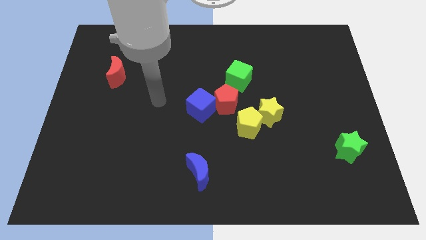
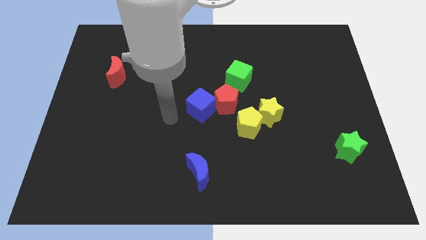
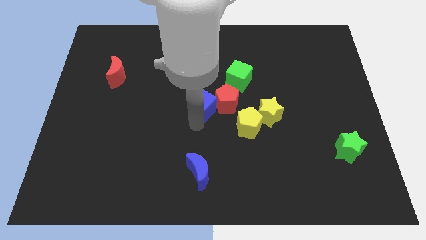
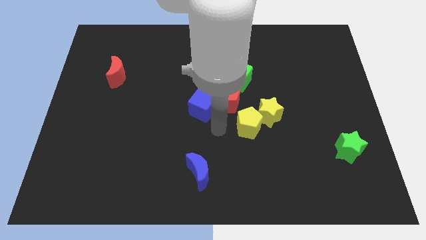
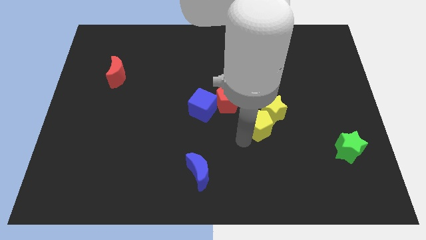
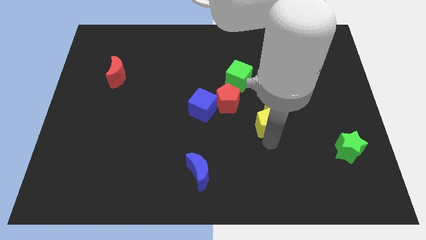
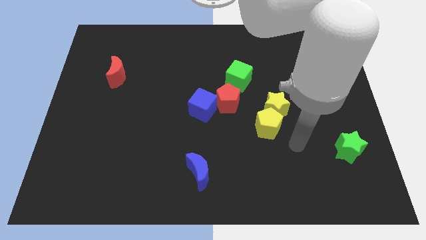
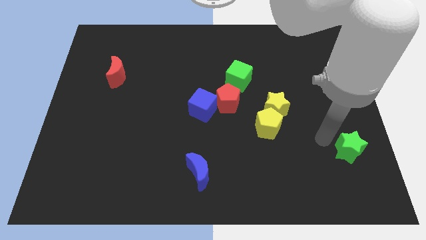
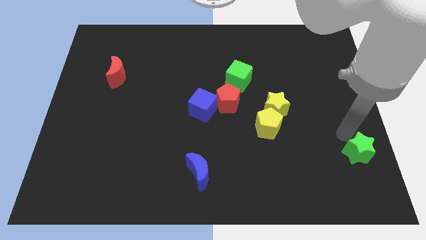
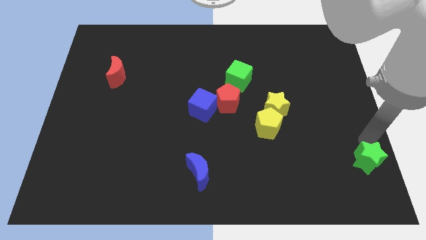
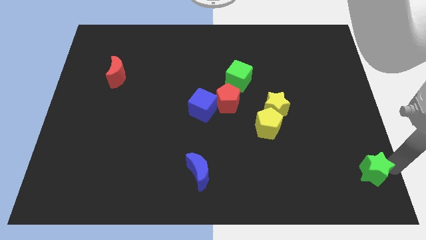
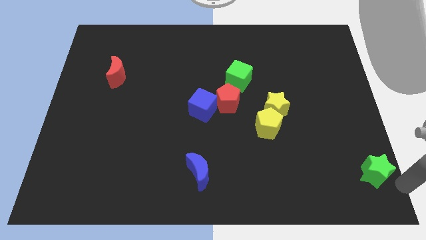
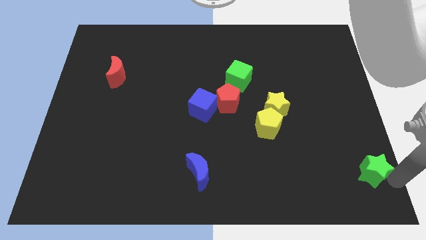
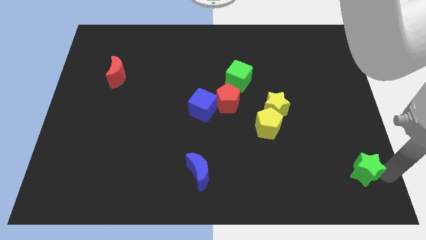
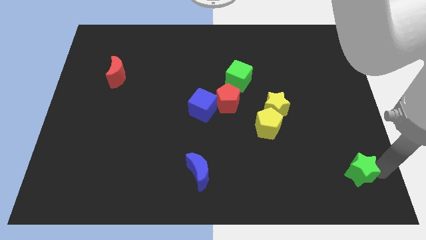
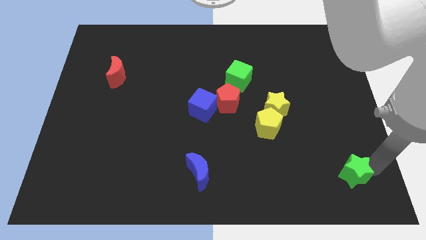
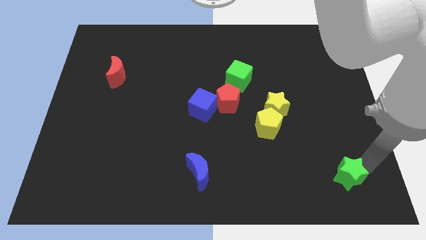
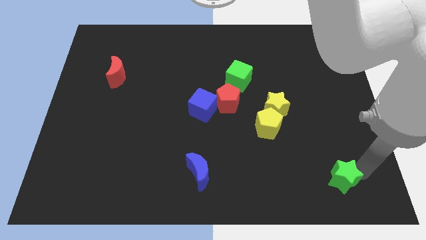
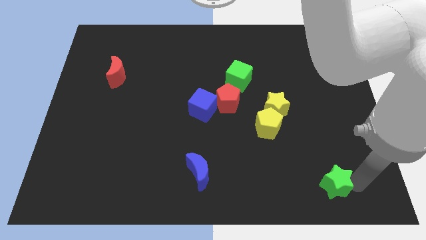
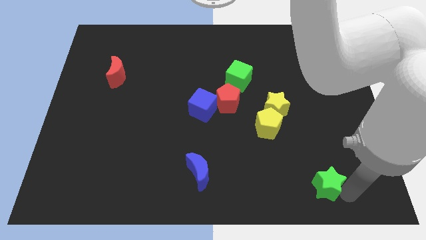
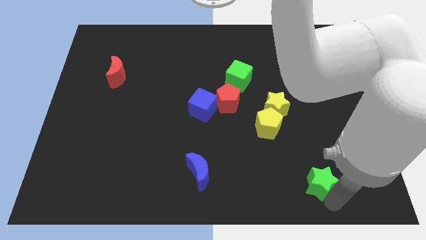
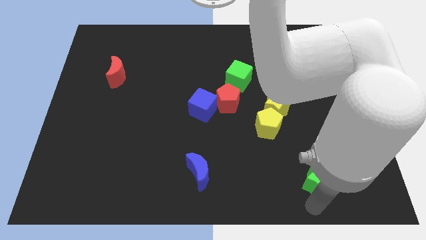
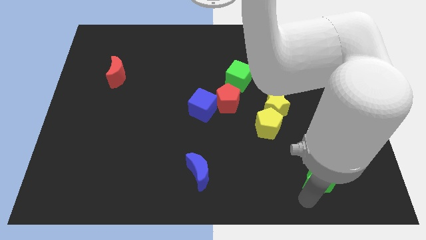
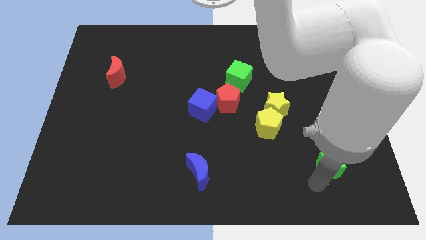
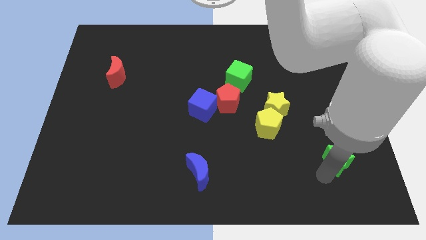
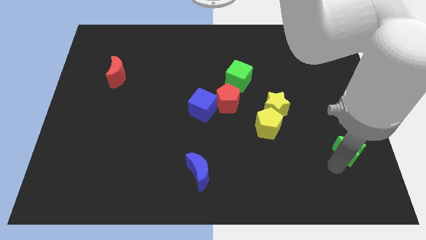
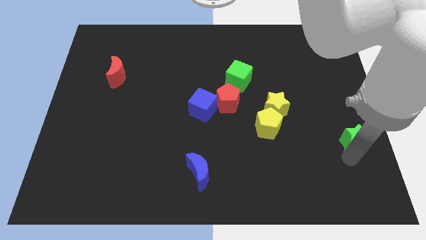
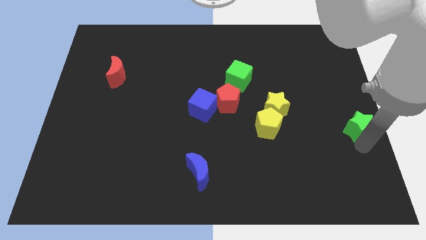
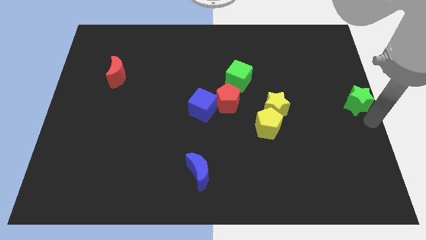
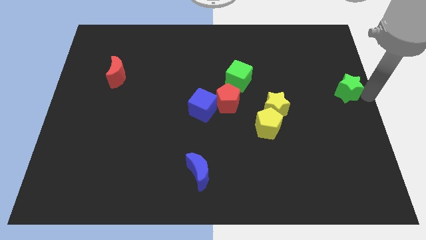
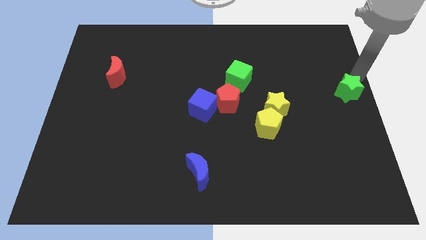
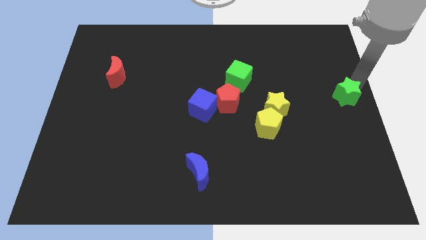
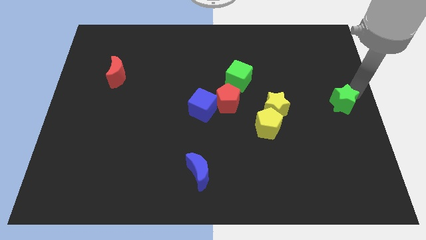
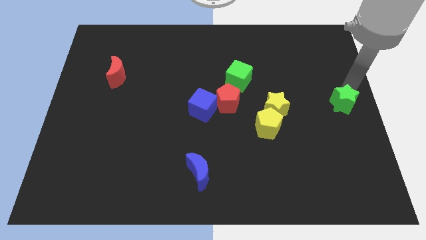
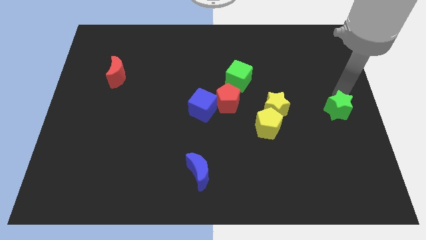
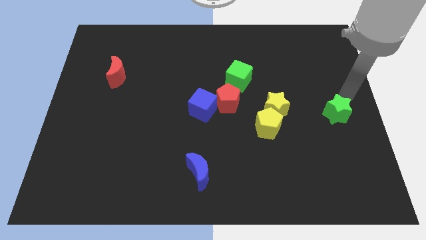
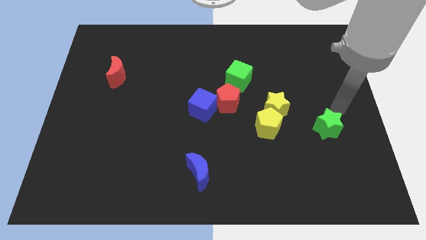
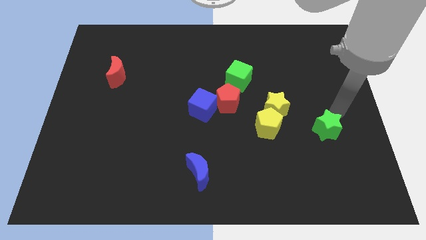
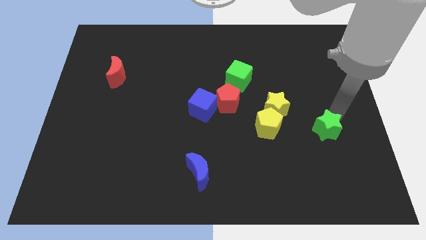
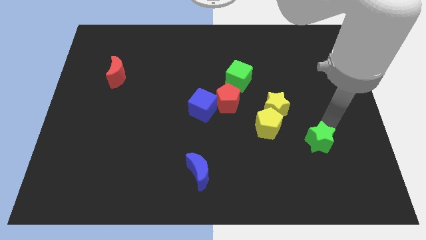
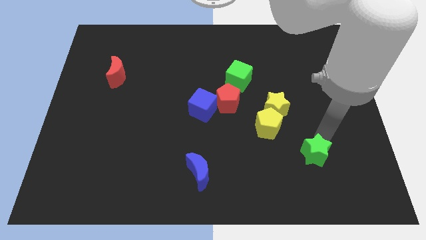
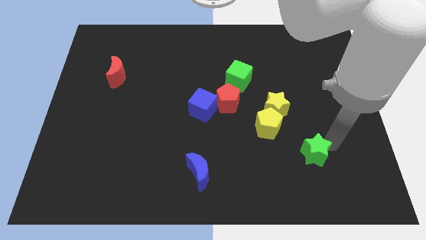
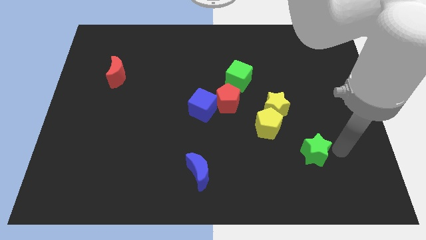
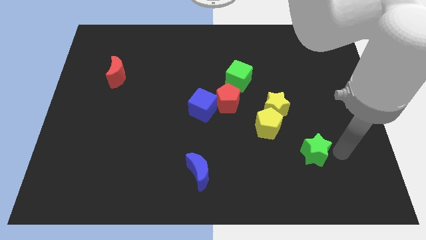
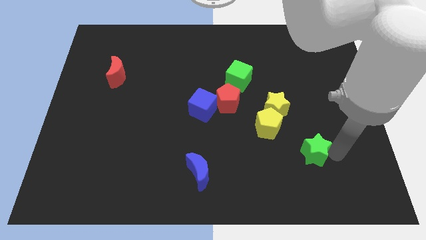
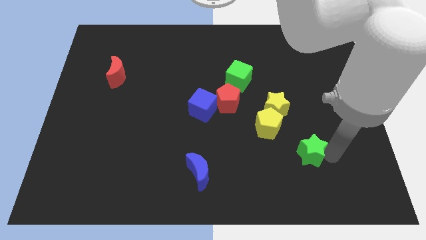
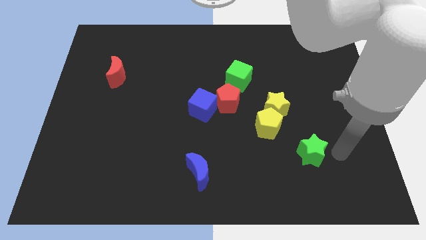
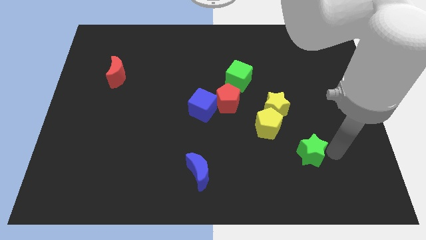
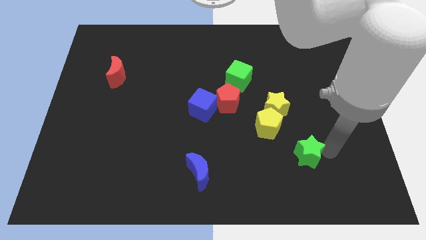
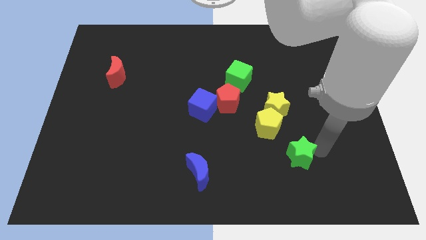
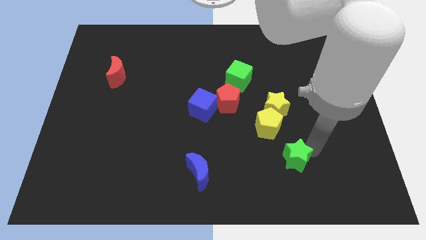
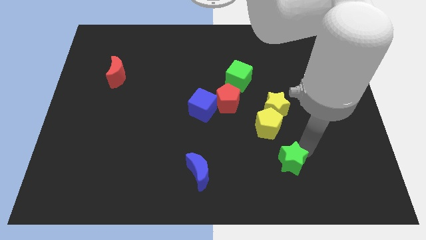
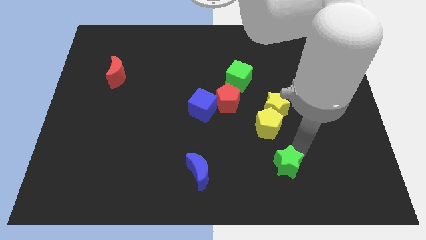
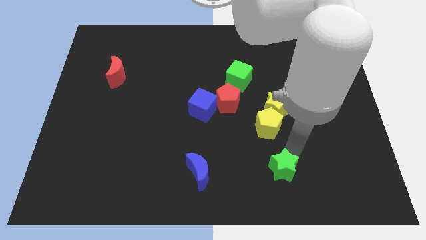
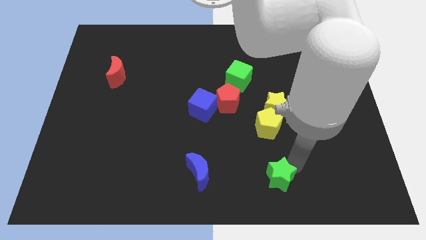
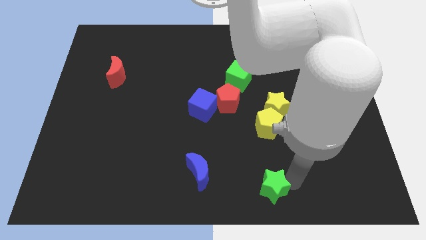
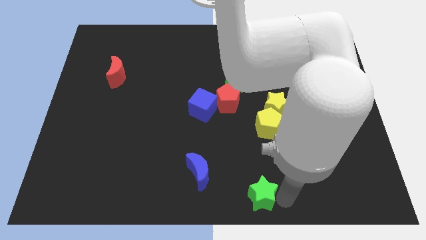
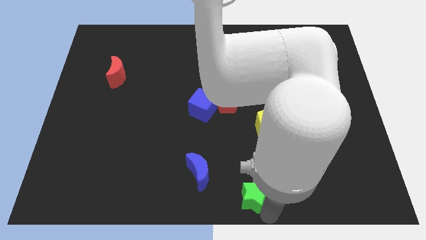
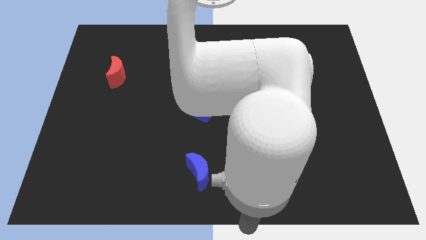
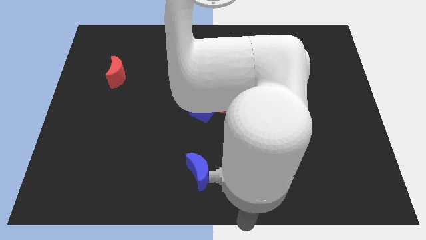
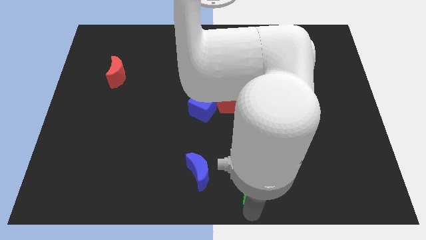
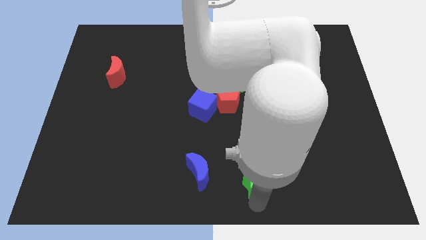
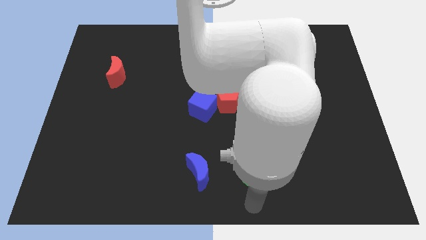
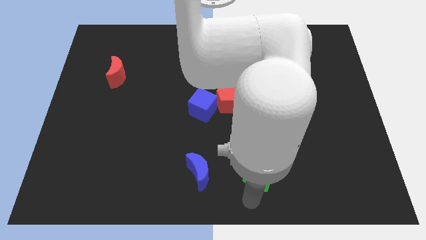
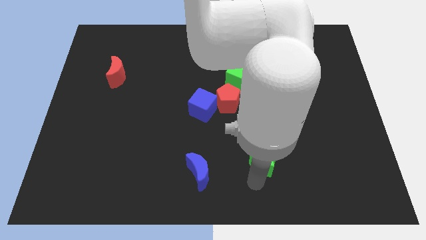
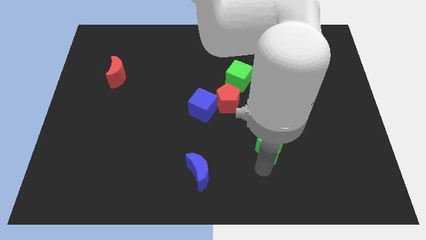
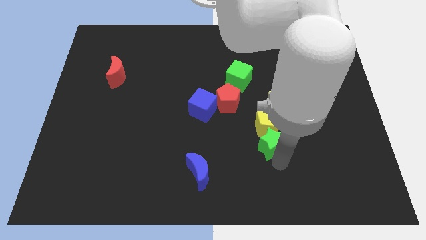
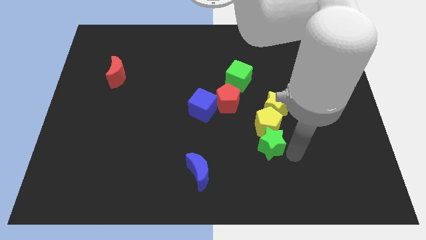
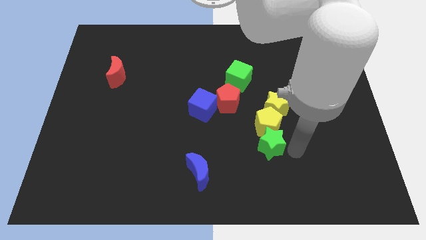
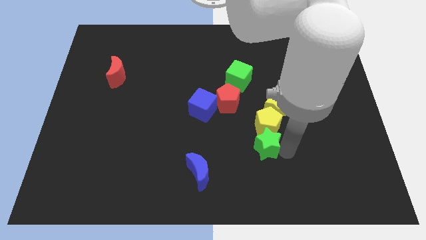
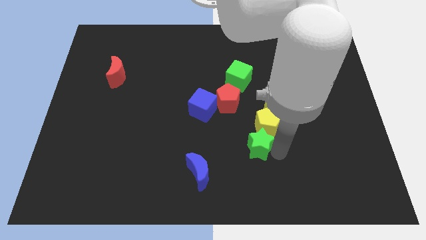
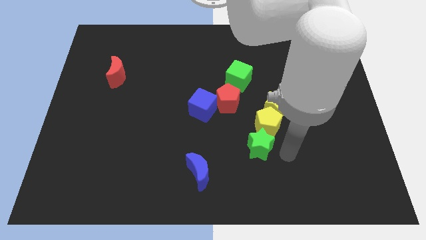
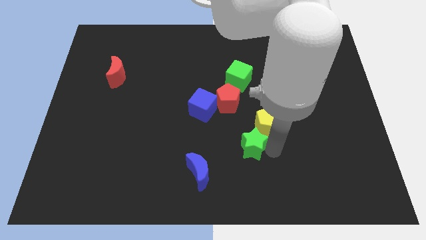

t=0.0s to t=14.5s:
slide the green star to the bottom side of the red pentagon
